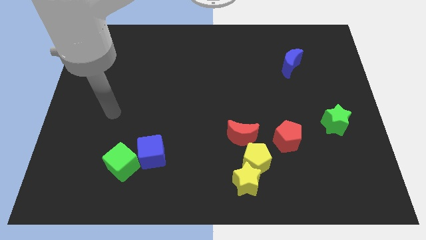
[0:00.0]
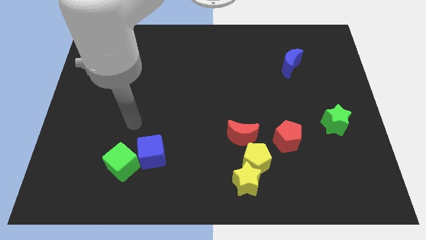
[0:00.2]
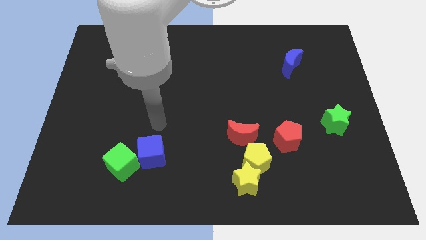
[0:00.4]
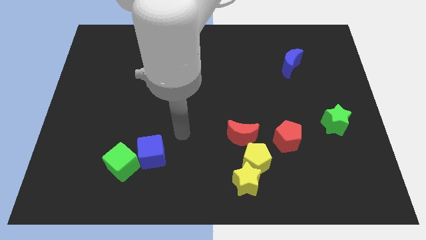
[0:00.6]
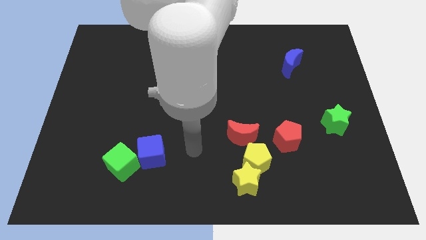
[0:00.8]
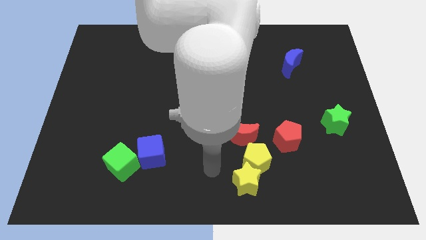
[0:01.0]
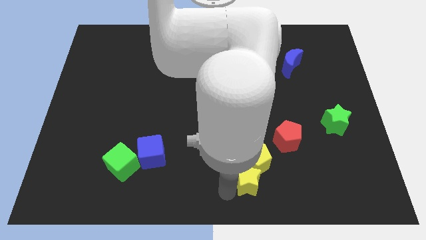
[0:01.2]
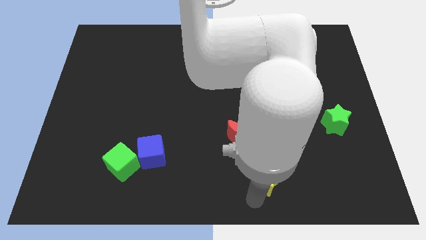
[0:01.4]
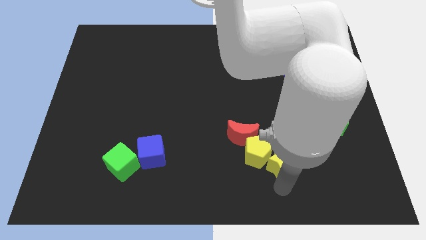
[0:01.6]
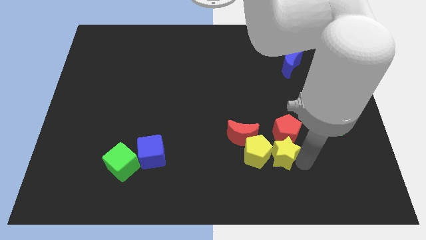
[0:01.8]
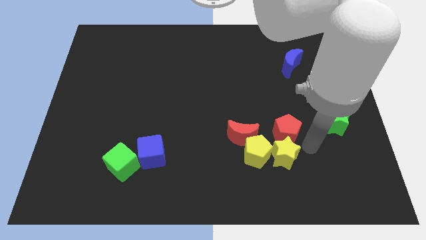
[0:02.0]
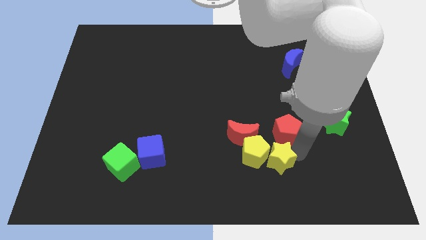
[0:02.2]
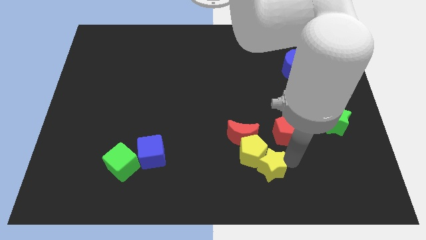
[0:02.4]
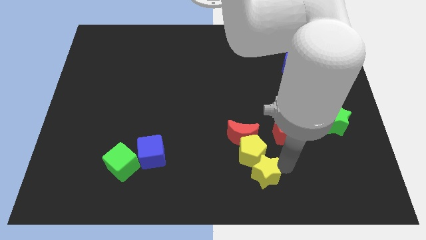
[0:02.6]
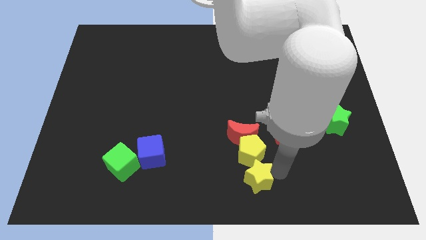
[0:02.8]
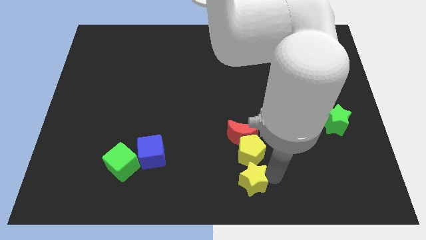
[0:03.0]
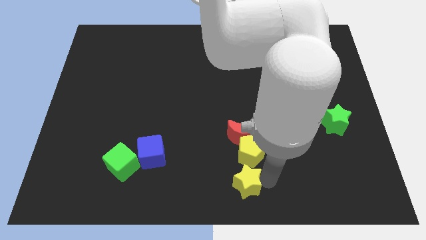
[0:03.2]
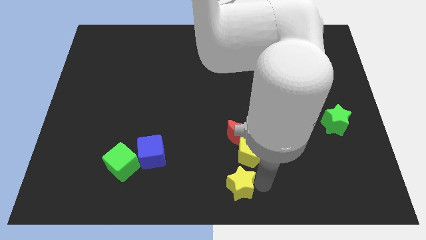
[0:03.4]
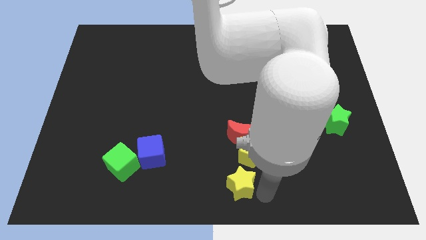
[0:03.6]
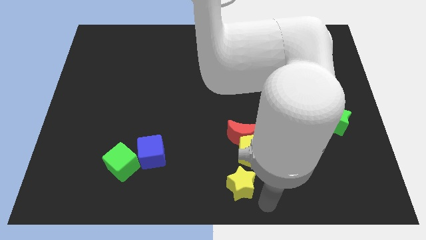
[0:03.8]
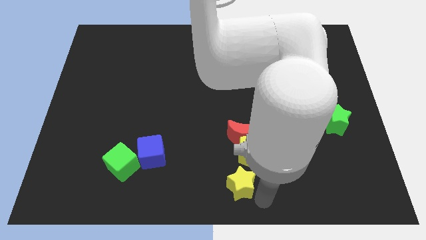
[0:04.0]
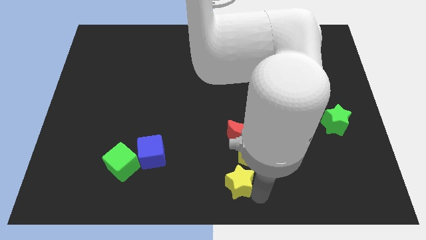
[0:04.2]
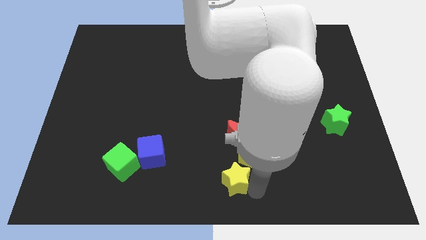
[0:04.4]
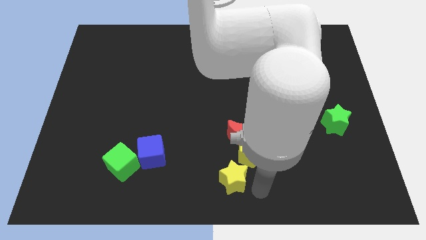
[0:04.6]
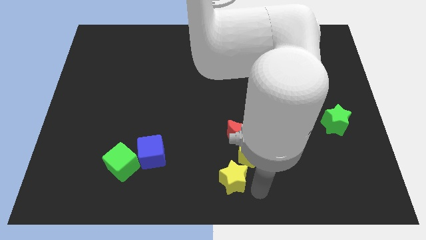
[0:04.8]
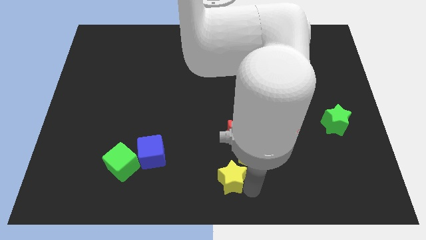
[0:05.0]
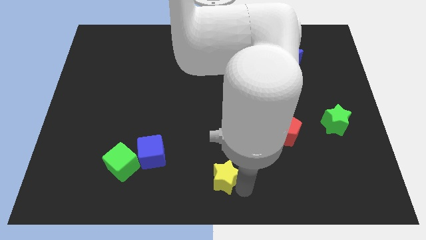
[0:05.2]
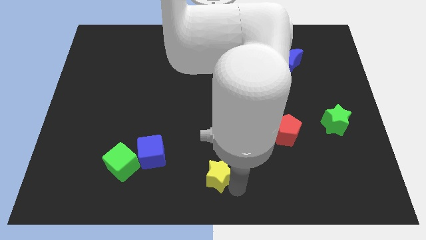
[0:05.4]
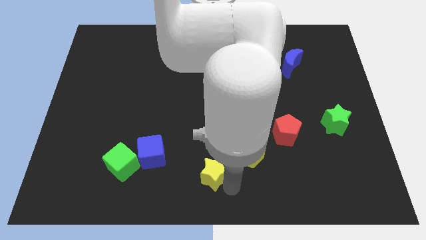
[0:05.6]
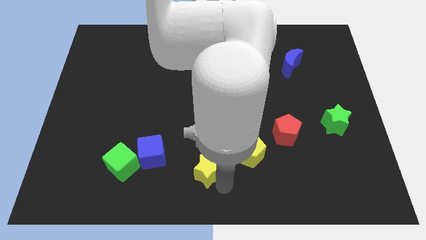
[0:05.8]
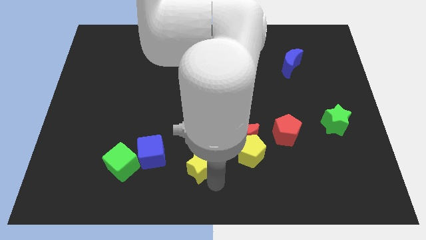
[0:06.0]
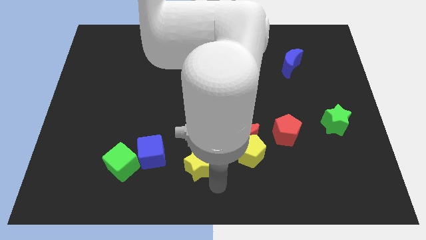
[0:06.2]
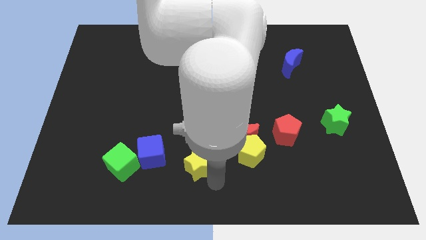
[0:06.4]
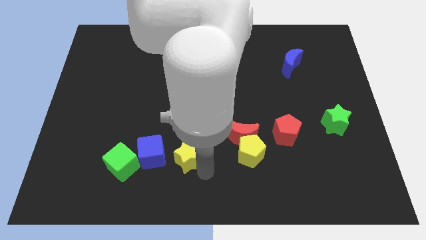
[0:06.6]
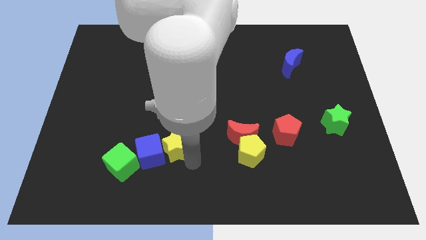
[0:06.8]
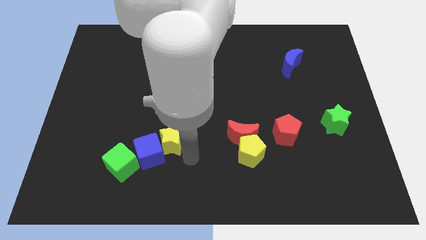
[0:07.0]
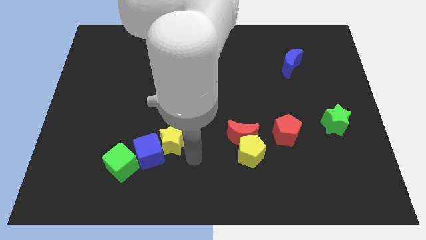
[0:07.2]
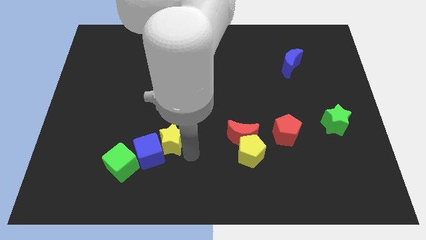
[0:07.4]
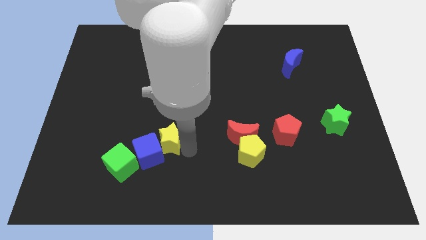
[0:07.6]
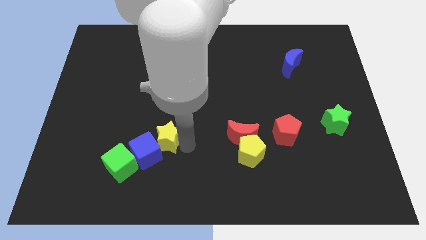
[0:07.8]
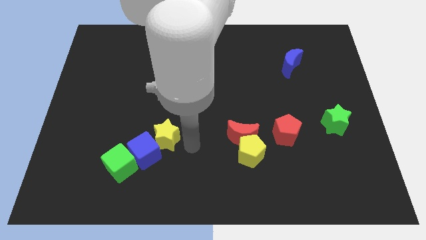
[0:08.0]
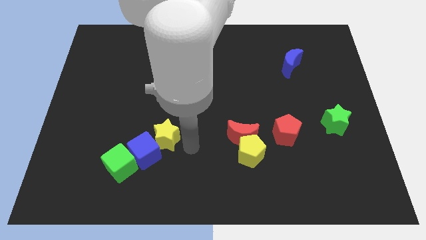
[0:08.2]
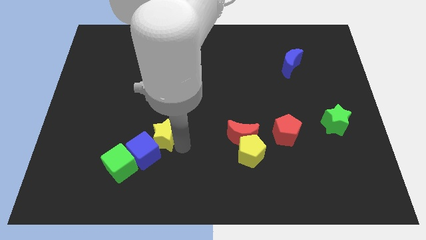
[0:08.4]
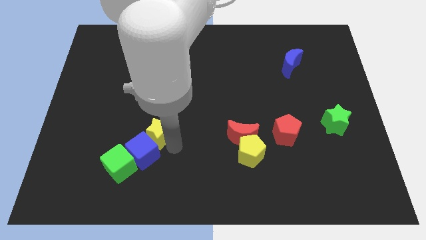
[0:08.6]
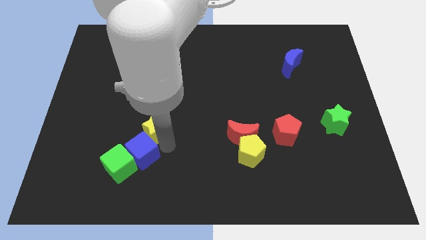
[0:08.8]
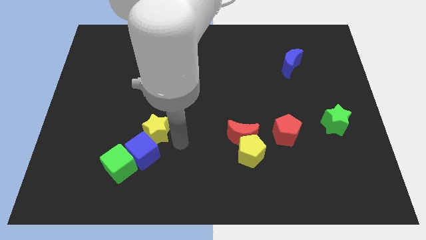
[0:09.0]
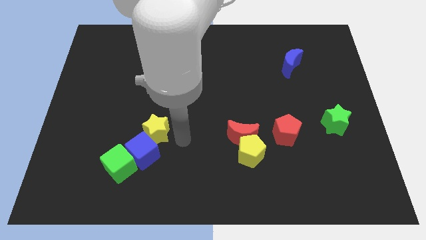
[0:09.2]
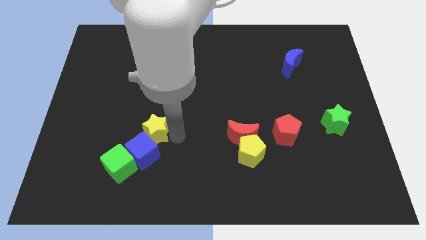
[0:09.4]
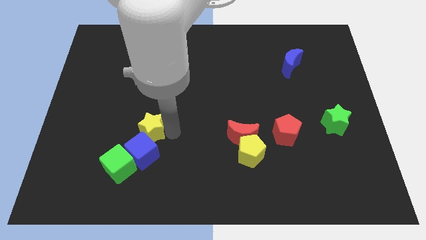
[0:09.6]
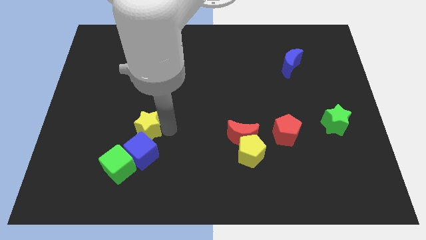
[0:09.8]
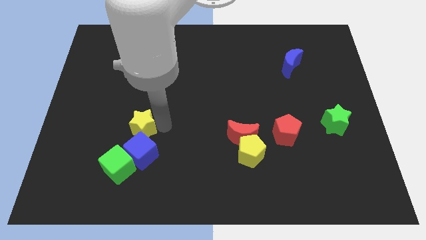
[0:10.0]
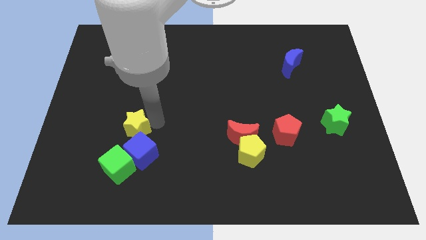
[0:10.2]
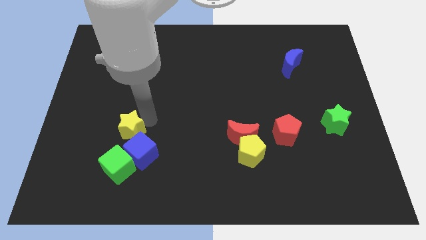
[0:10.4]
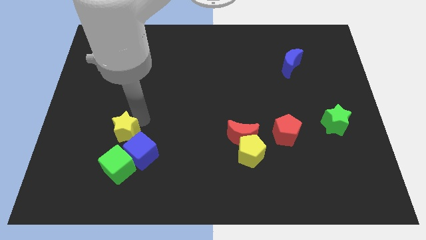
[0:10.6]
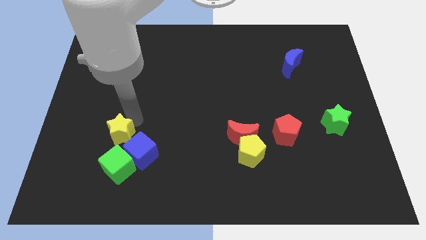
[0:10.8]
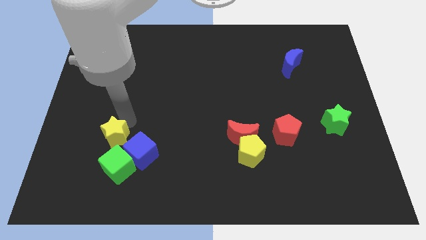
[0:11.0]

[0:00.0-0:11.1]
slide the yellow star diagonally up and to the left of the green cube
